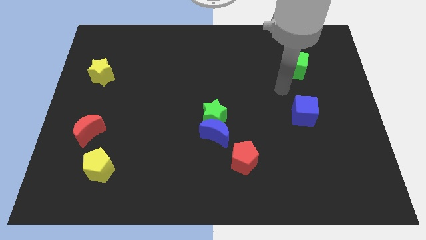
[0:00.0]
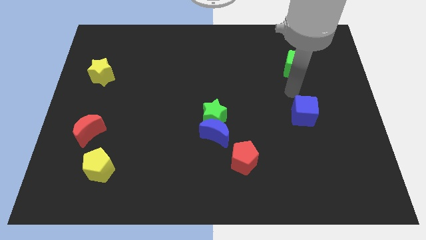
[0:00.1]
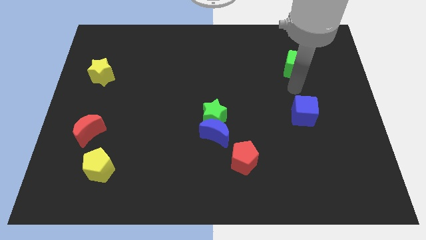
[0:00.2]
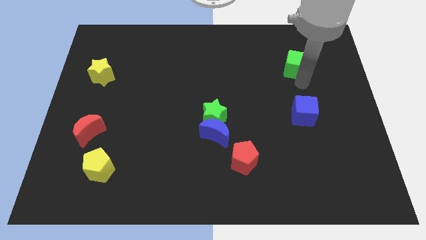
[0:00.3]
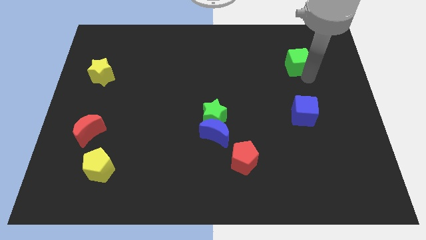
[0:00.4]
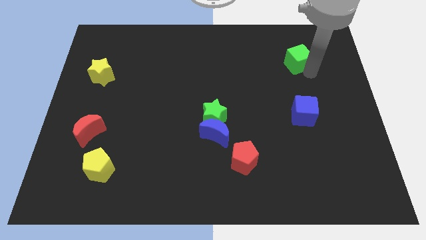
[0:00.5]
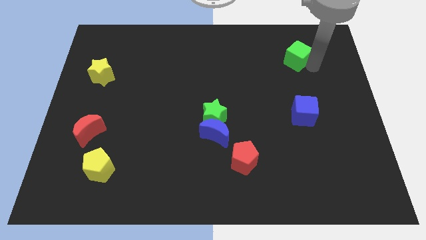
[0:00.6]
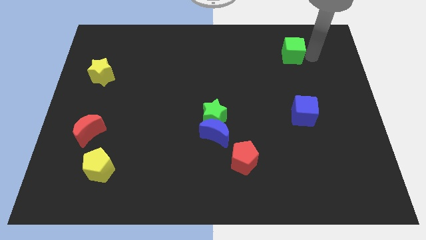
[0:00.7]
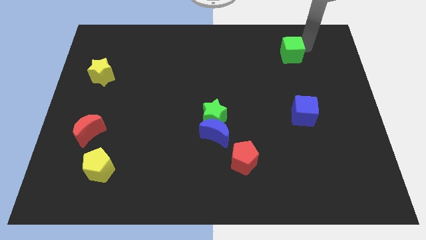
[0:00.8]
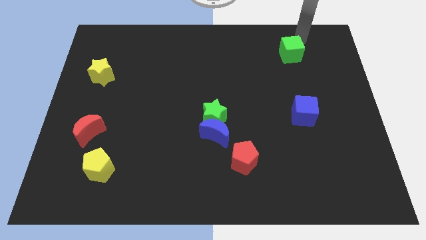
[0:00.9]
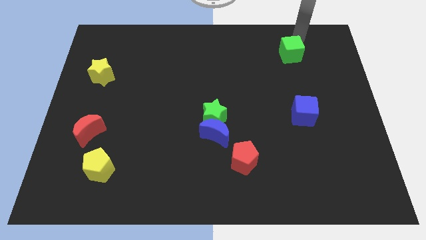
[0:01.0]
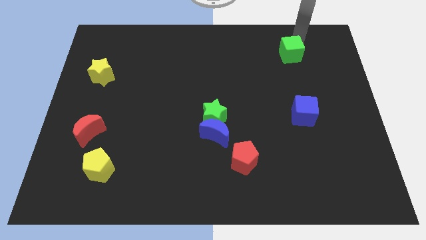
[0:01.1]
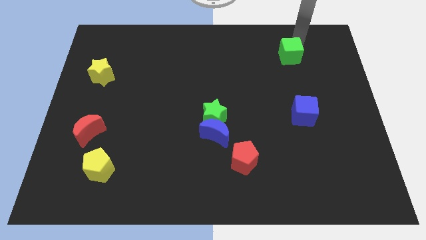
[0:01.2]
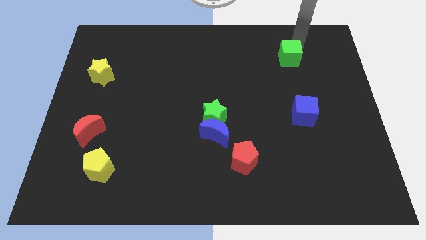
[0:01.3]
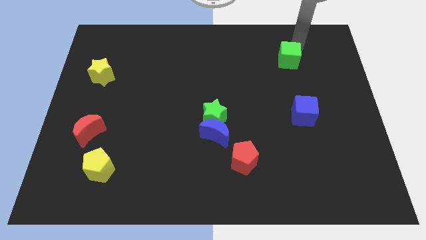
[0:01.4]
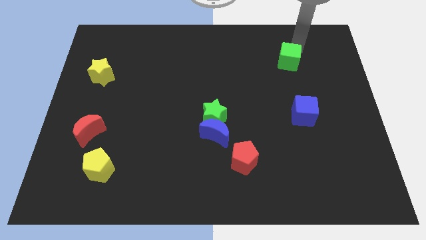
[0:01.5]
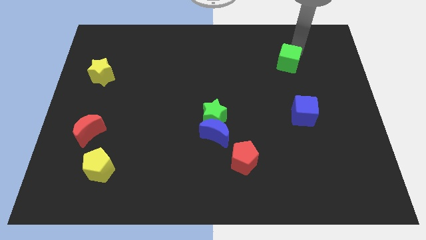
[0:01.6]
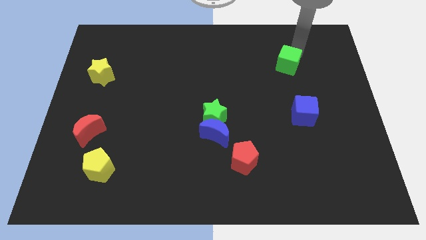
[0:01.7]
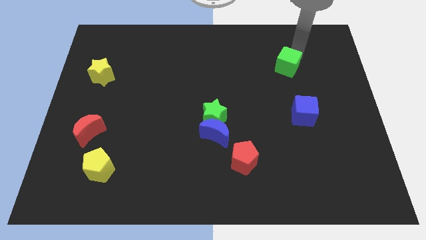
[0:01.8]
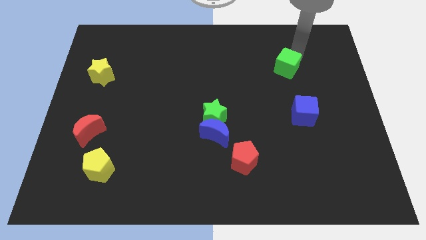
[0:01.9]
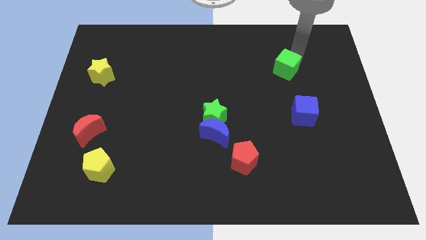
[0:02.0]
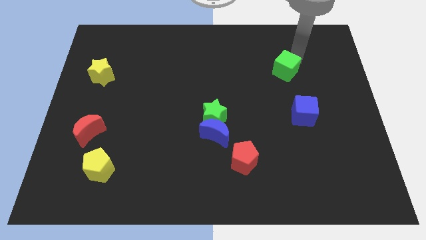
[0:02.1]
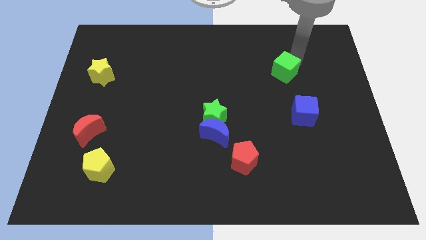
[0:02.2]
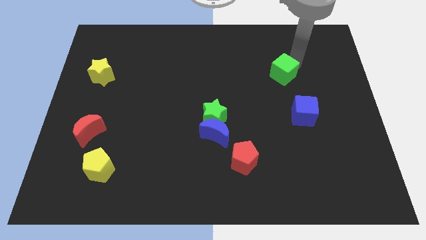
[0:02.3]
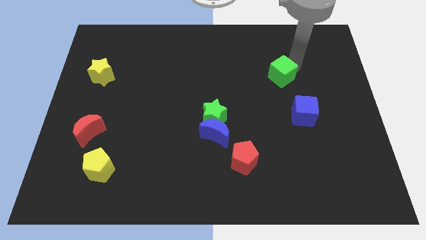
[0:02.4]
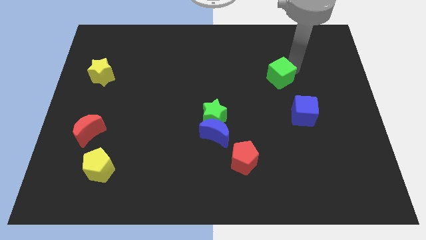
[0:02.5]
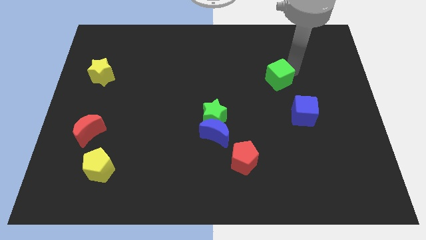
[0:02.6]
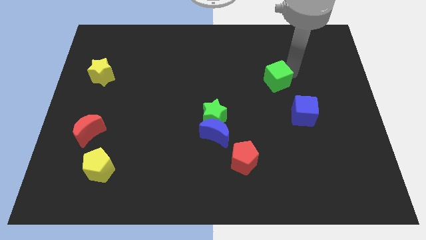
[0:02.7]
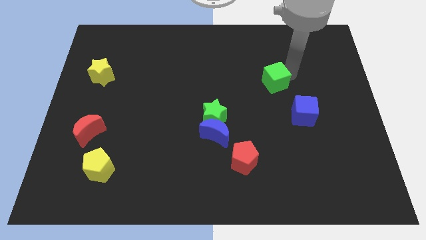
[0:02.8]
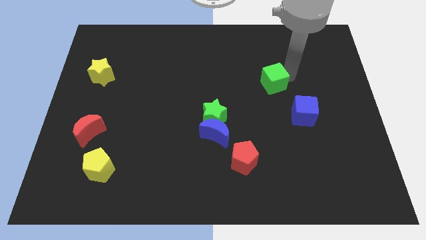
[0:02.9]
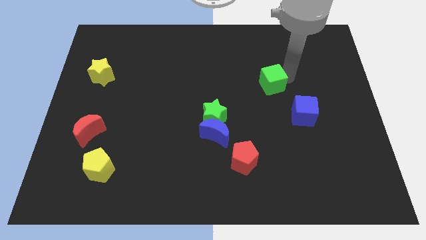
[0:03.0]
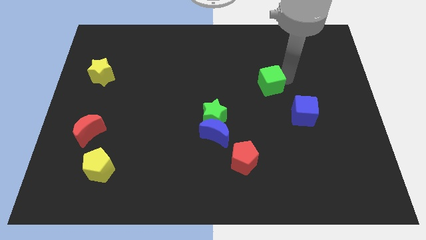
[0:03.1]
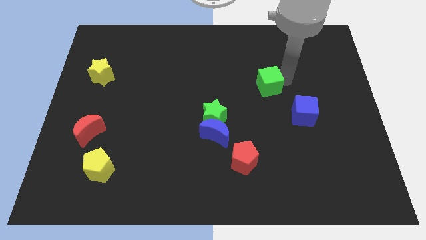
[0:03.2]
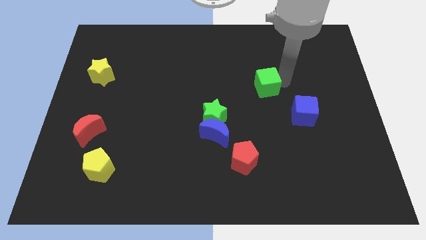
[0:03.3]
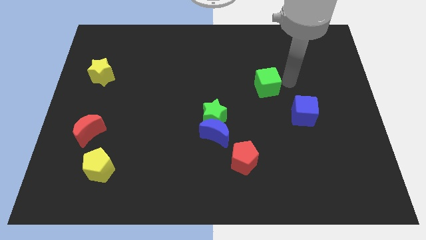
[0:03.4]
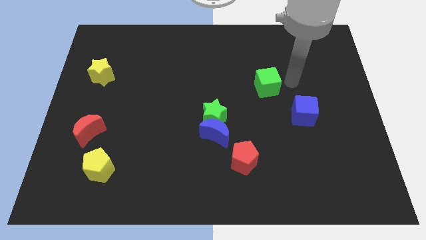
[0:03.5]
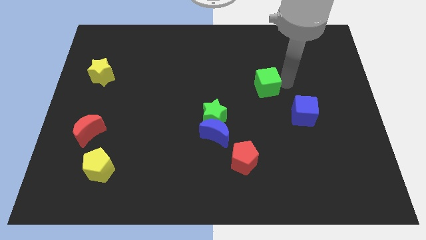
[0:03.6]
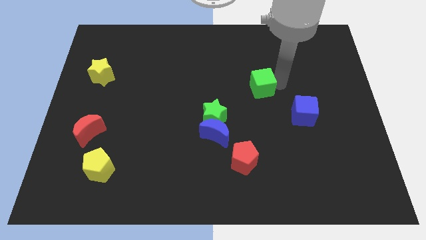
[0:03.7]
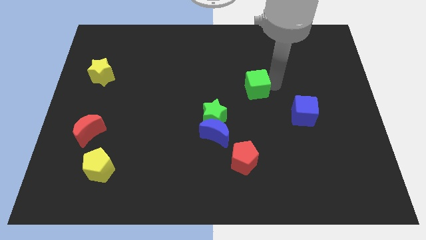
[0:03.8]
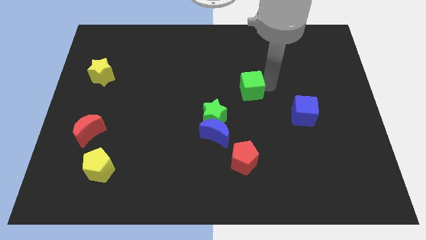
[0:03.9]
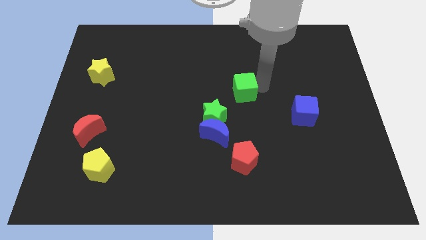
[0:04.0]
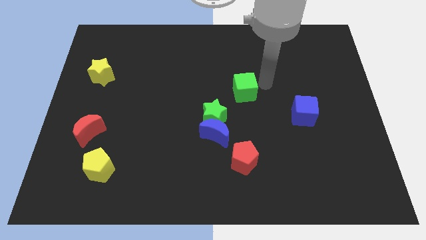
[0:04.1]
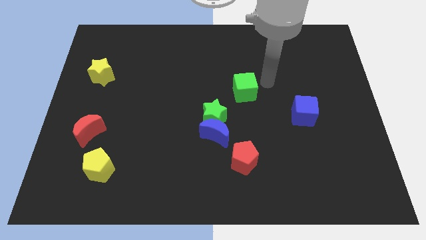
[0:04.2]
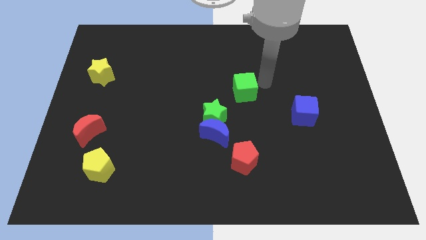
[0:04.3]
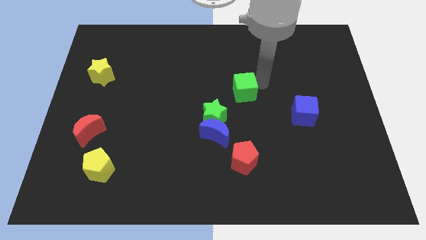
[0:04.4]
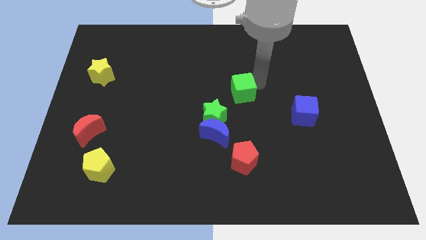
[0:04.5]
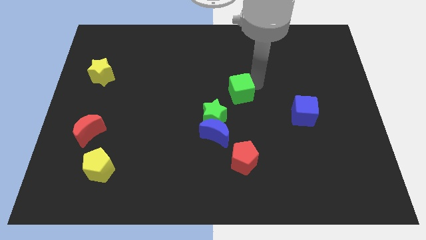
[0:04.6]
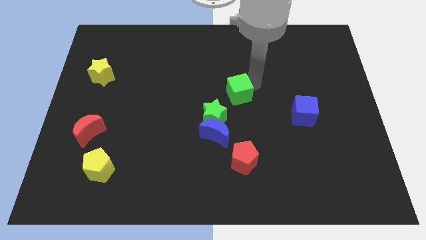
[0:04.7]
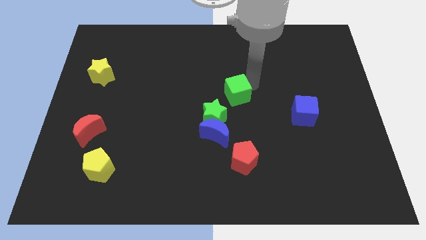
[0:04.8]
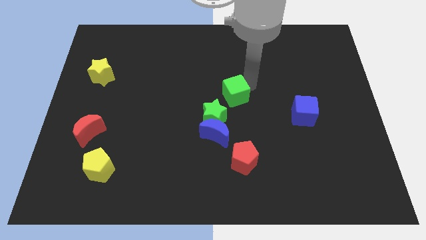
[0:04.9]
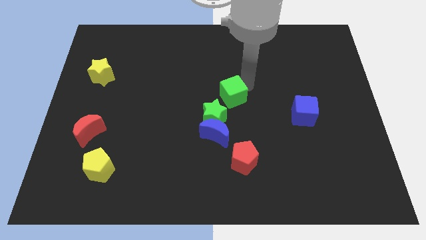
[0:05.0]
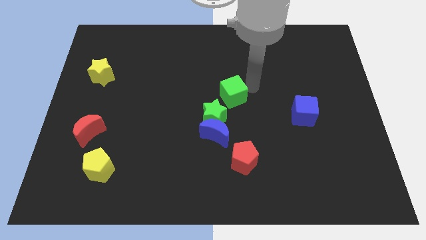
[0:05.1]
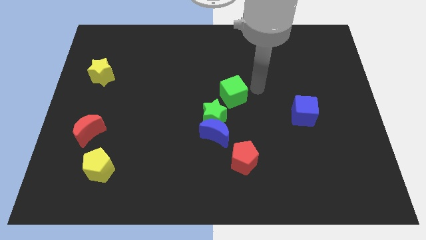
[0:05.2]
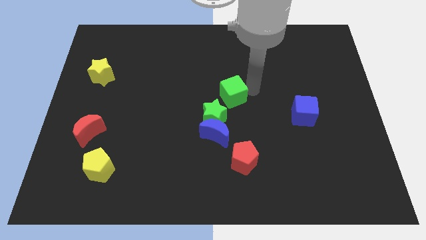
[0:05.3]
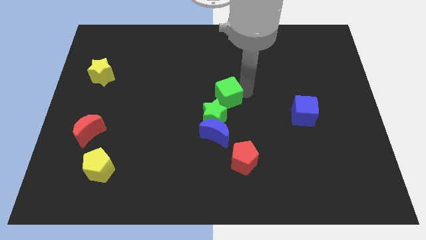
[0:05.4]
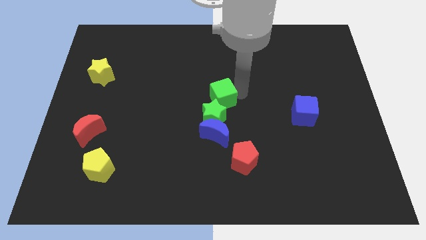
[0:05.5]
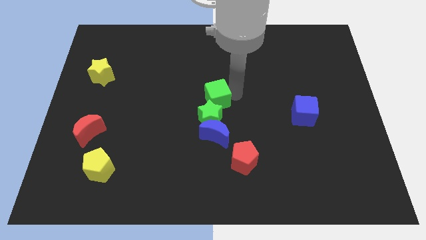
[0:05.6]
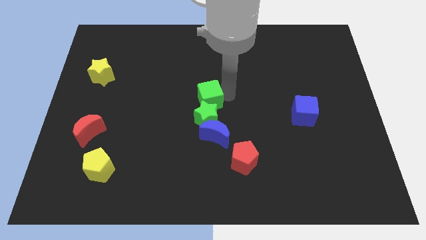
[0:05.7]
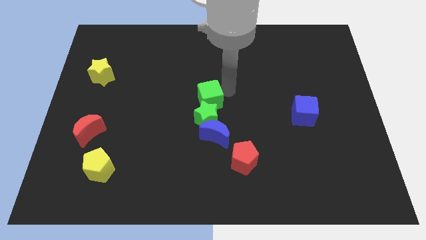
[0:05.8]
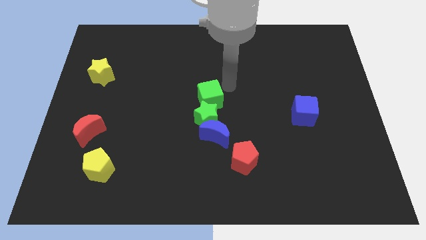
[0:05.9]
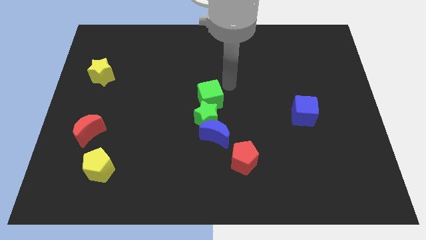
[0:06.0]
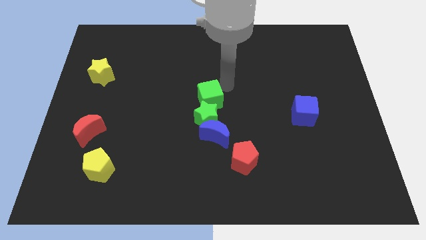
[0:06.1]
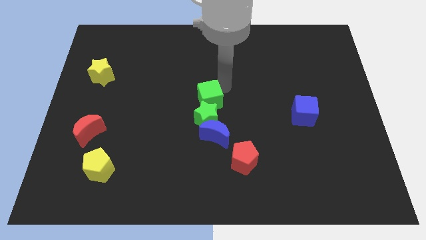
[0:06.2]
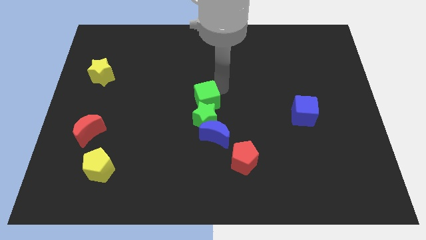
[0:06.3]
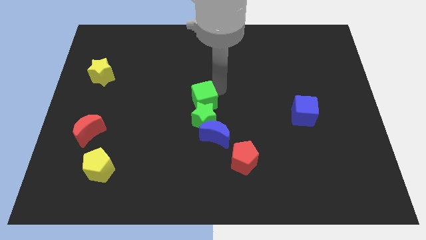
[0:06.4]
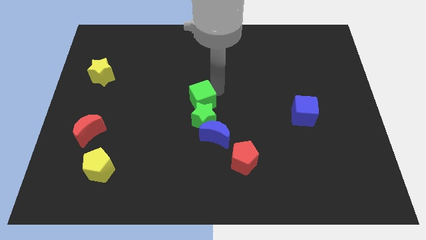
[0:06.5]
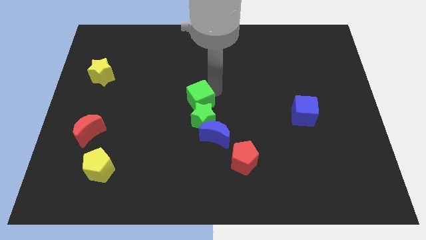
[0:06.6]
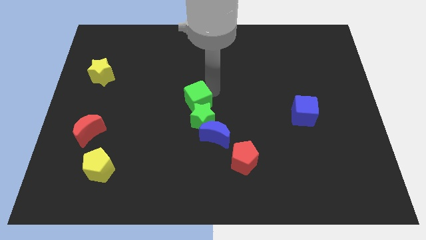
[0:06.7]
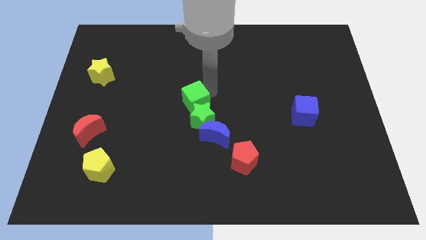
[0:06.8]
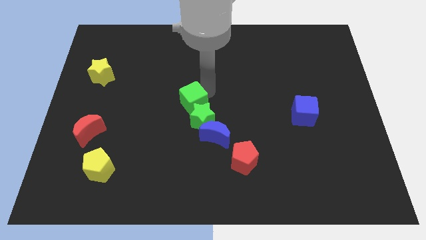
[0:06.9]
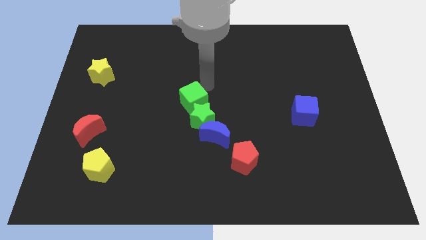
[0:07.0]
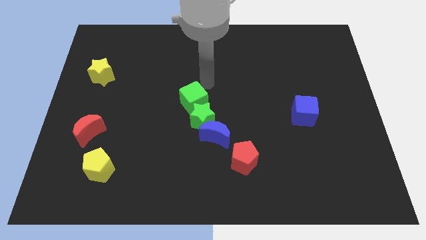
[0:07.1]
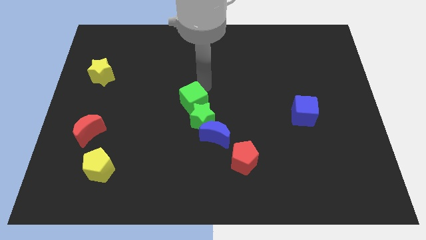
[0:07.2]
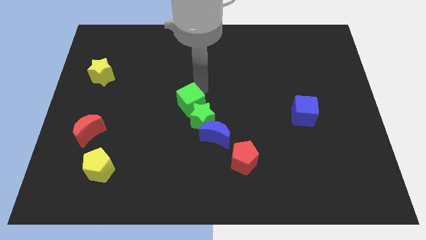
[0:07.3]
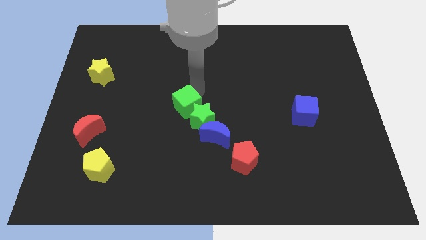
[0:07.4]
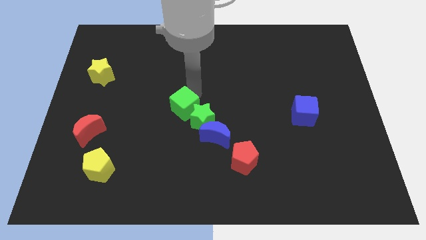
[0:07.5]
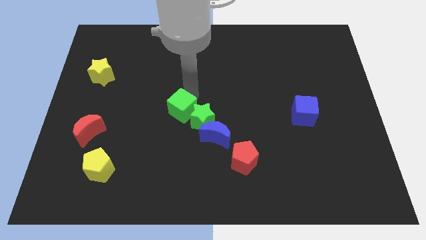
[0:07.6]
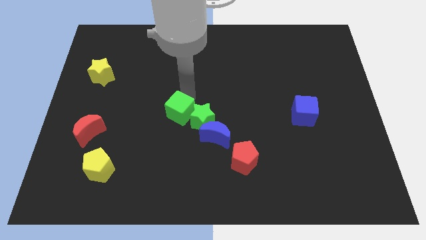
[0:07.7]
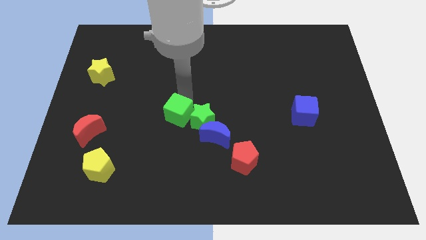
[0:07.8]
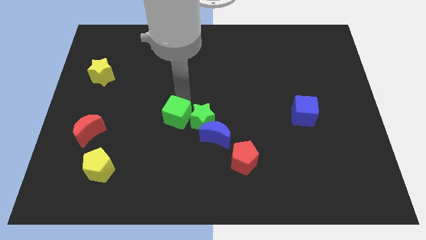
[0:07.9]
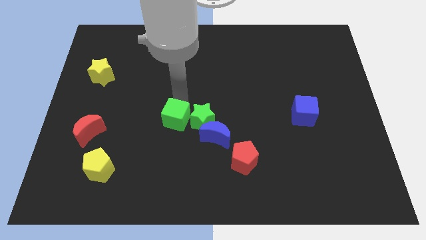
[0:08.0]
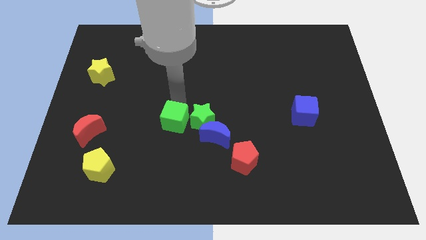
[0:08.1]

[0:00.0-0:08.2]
move the green cube just left of the blue moon
